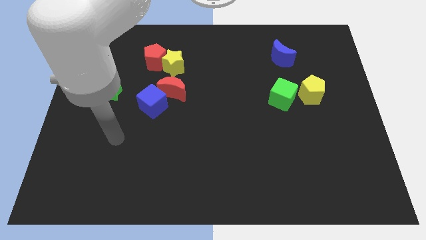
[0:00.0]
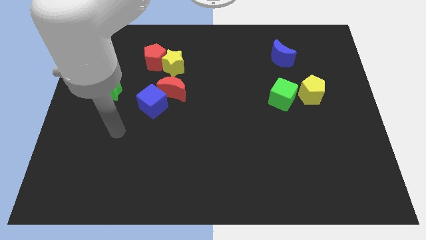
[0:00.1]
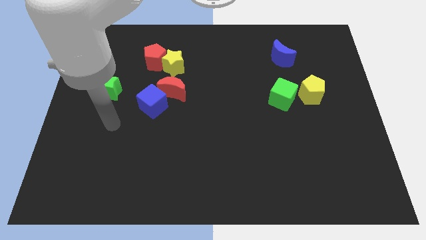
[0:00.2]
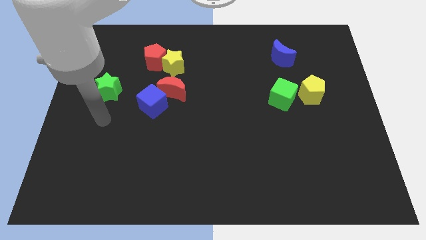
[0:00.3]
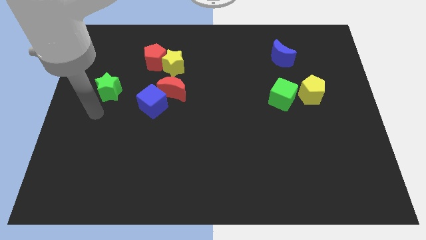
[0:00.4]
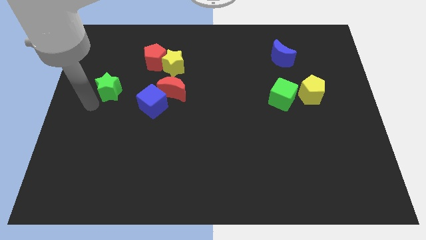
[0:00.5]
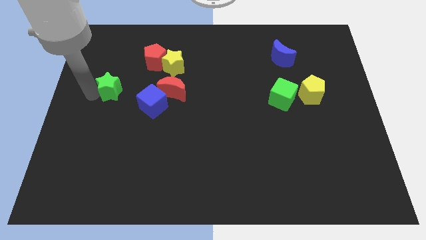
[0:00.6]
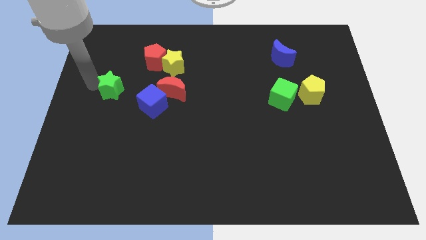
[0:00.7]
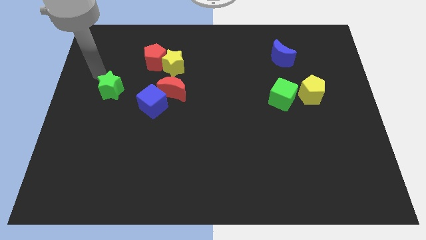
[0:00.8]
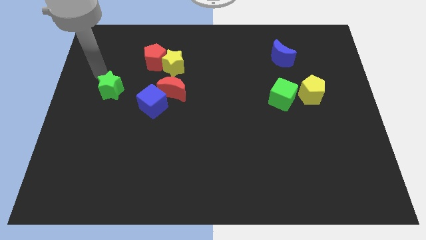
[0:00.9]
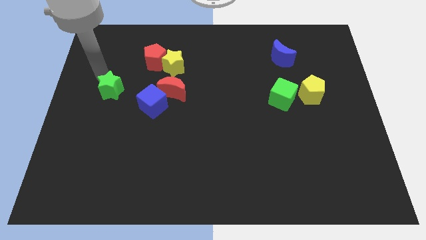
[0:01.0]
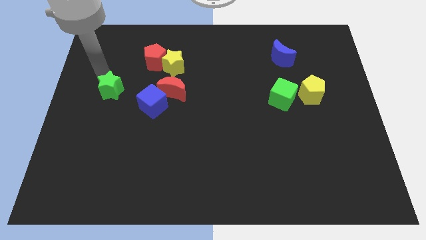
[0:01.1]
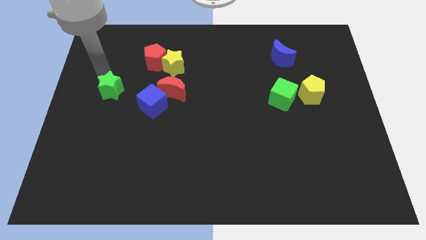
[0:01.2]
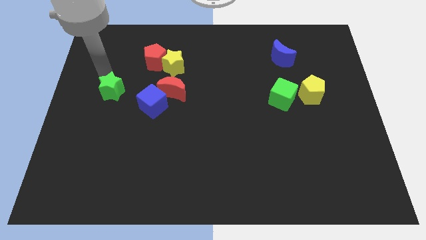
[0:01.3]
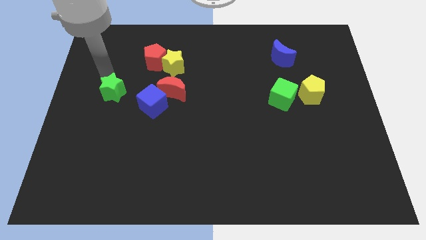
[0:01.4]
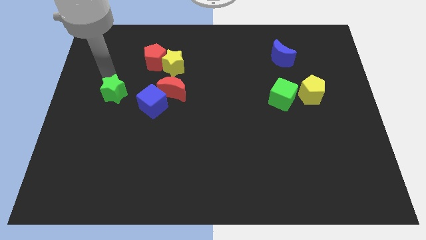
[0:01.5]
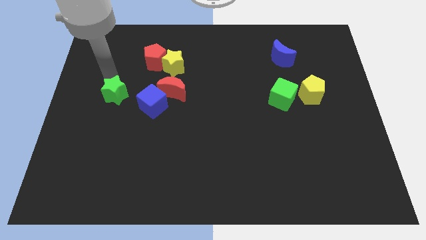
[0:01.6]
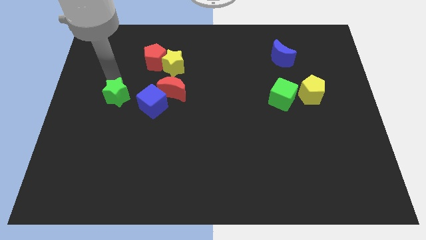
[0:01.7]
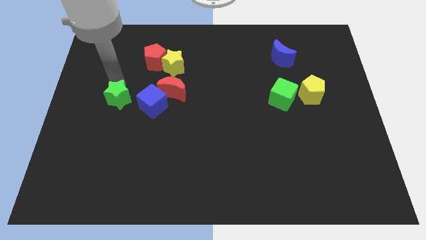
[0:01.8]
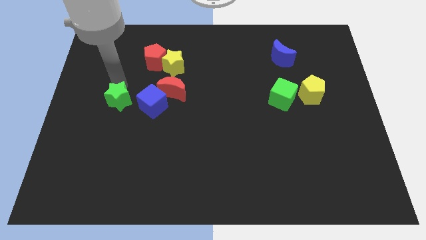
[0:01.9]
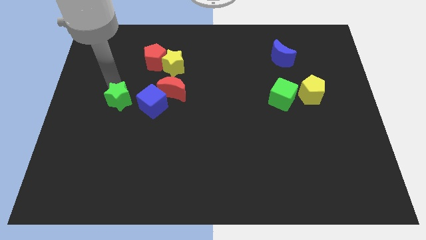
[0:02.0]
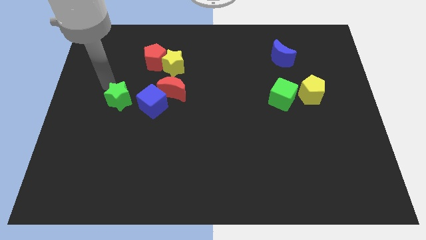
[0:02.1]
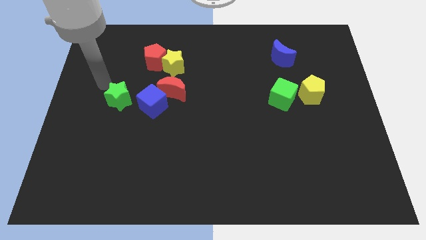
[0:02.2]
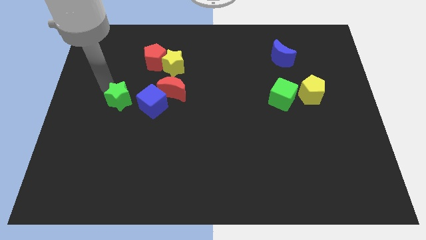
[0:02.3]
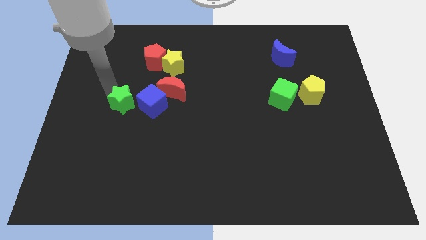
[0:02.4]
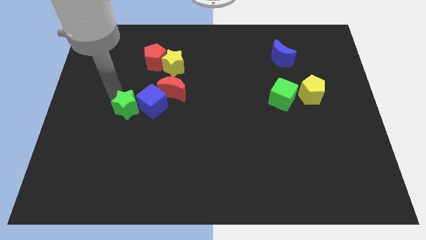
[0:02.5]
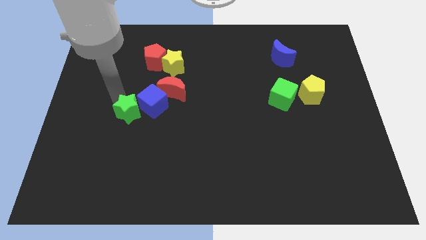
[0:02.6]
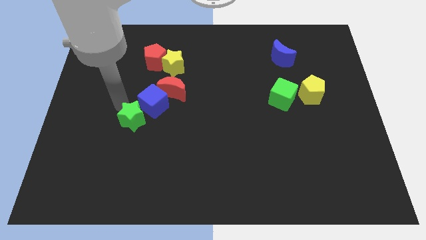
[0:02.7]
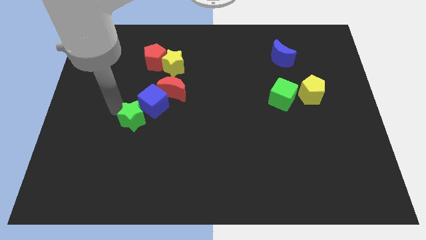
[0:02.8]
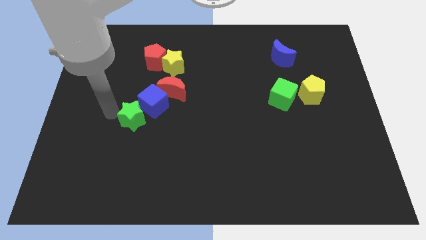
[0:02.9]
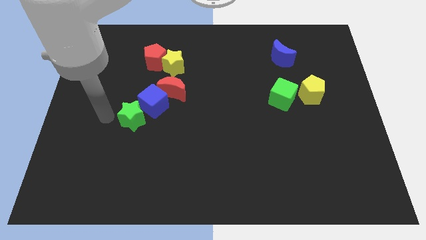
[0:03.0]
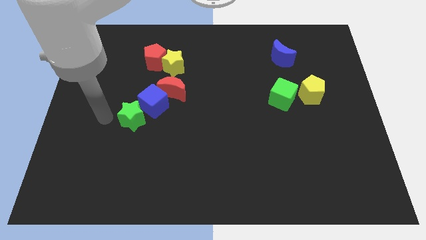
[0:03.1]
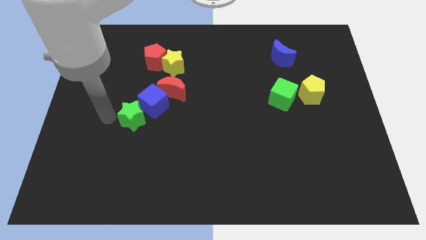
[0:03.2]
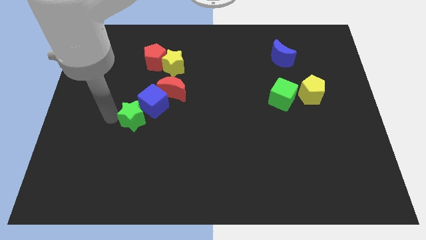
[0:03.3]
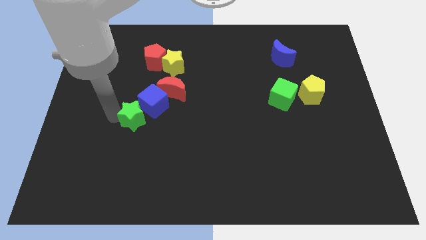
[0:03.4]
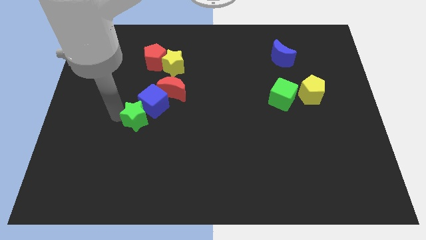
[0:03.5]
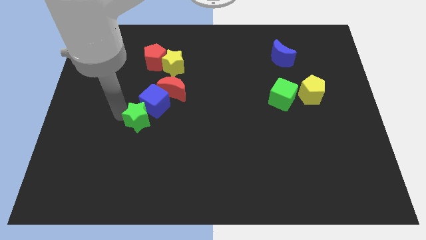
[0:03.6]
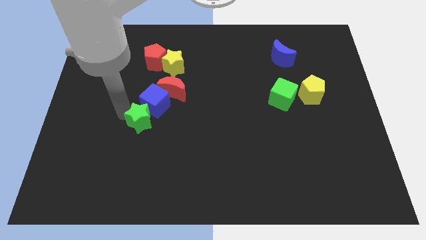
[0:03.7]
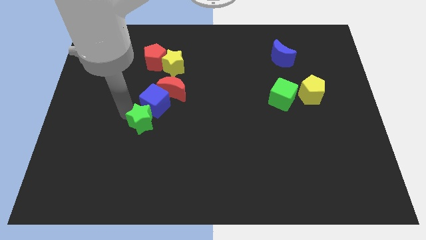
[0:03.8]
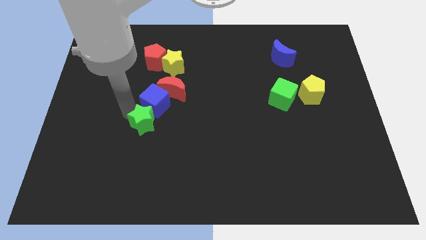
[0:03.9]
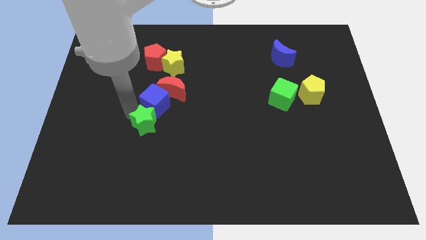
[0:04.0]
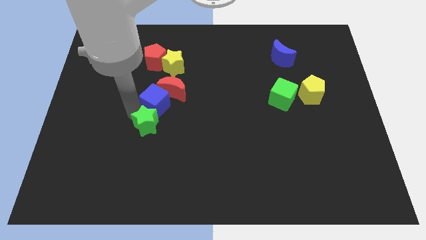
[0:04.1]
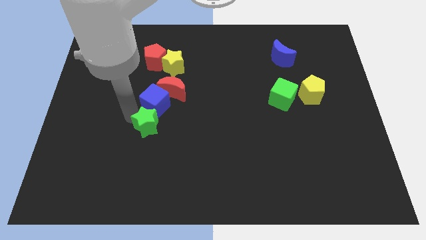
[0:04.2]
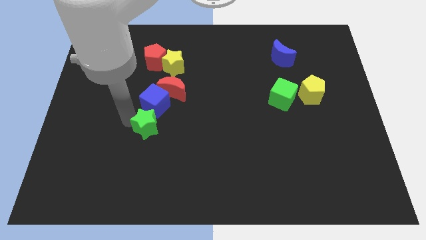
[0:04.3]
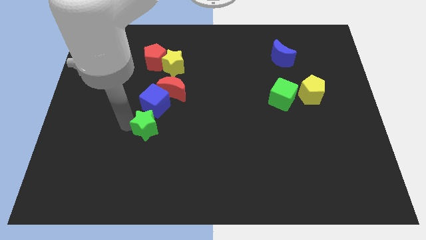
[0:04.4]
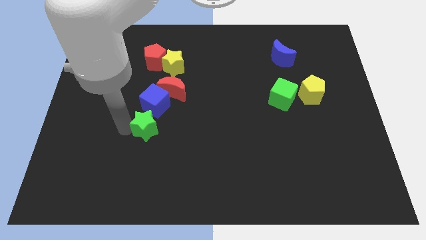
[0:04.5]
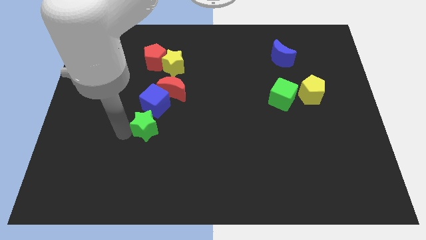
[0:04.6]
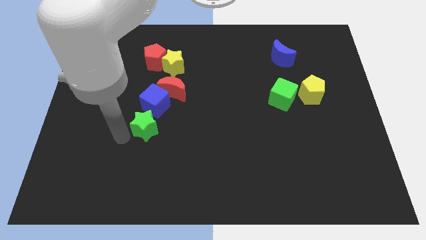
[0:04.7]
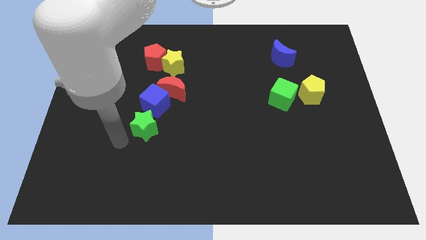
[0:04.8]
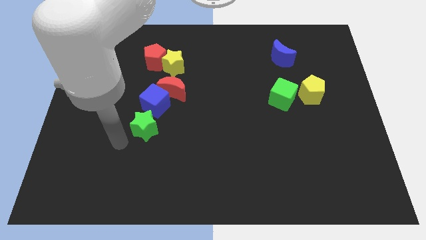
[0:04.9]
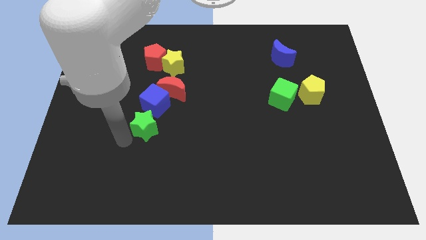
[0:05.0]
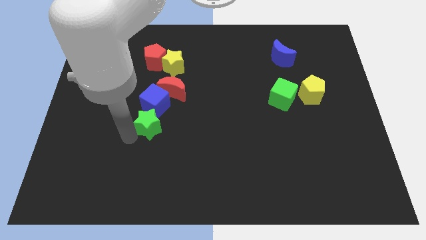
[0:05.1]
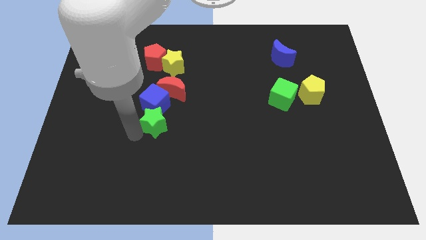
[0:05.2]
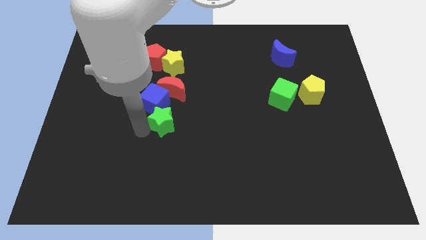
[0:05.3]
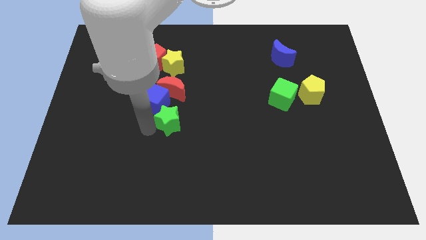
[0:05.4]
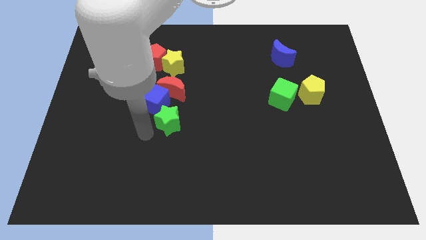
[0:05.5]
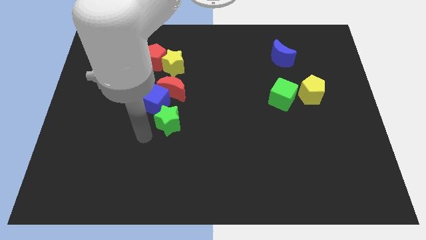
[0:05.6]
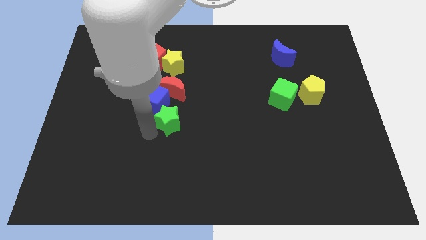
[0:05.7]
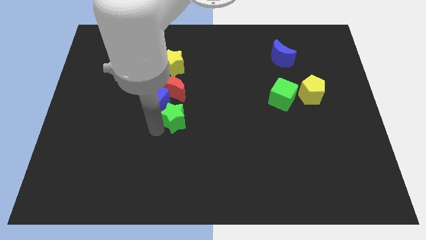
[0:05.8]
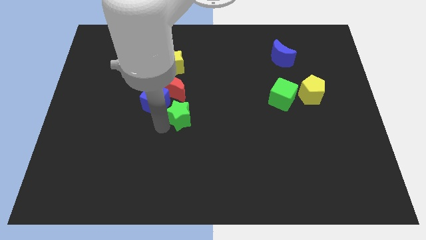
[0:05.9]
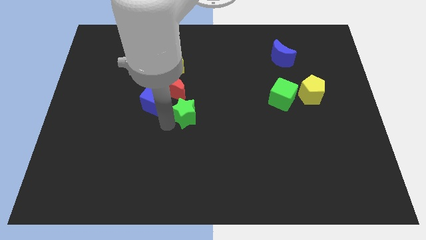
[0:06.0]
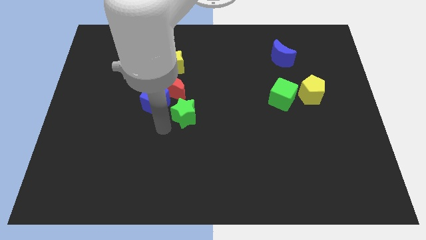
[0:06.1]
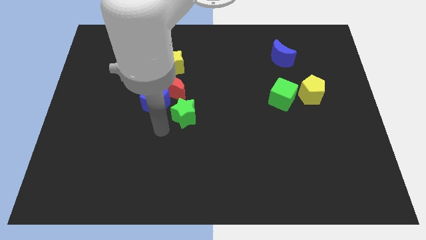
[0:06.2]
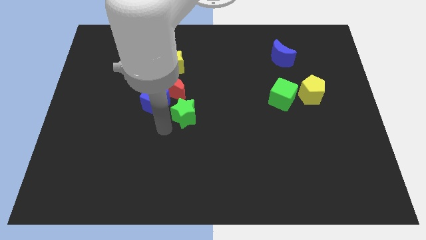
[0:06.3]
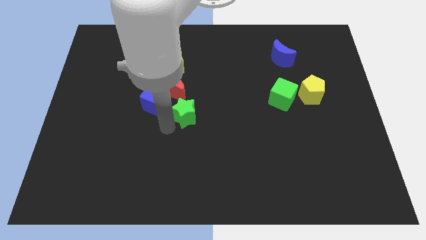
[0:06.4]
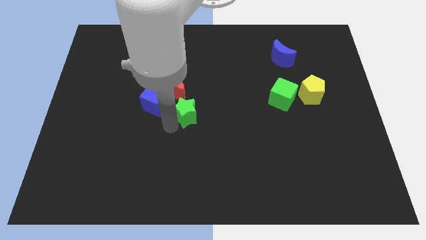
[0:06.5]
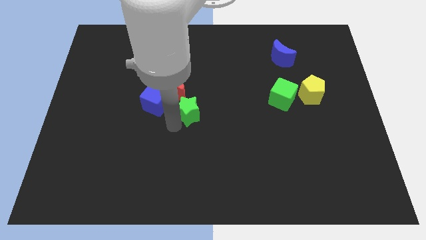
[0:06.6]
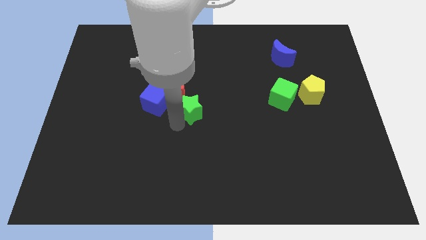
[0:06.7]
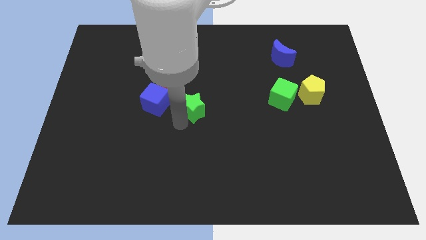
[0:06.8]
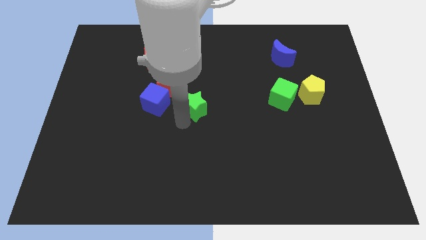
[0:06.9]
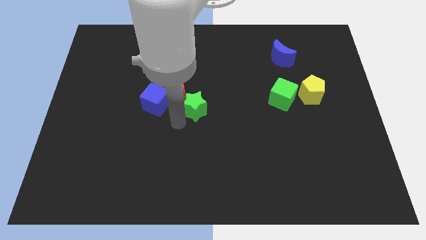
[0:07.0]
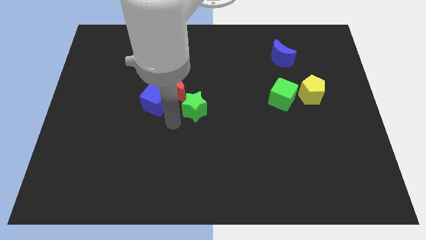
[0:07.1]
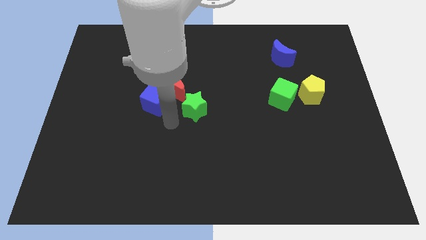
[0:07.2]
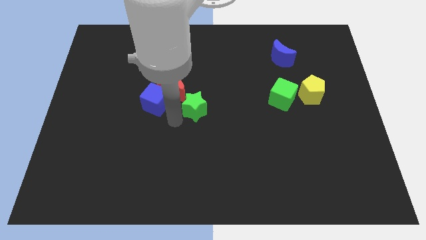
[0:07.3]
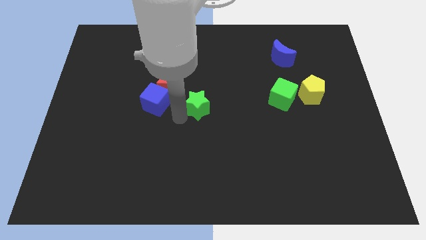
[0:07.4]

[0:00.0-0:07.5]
move the green star just right of the red moon
